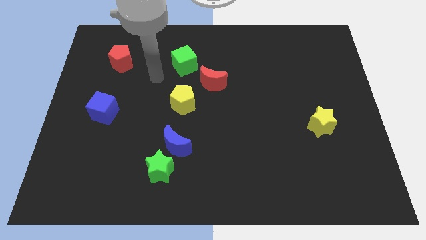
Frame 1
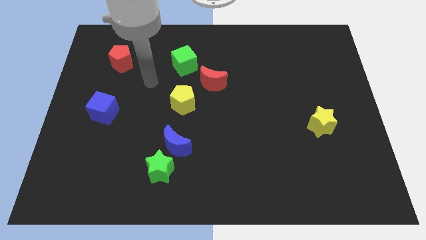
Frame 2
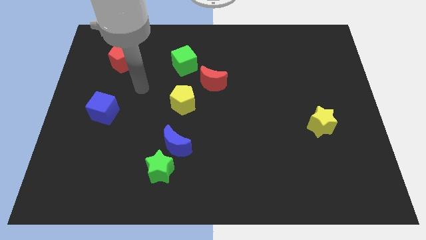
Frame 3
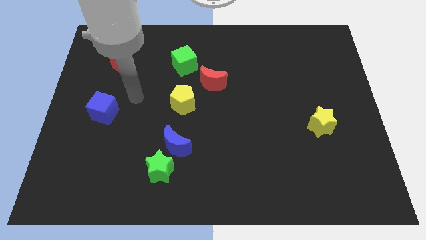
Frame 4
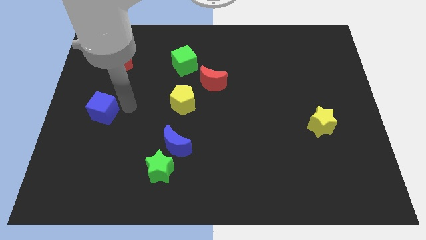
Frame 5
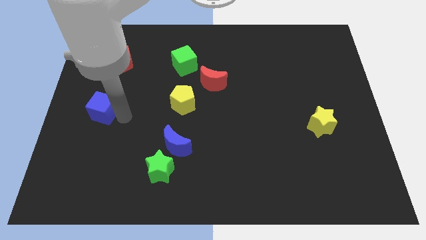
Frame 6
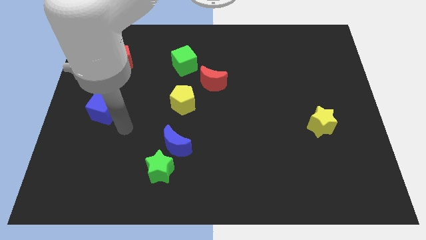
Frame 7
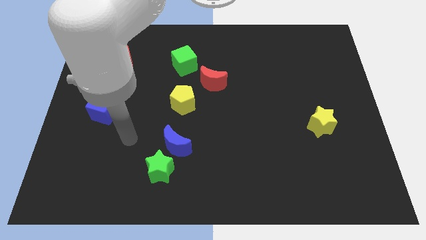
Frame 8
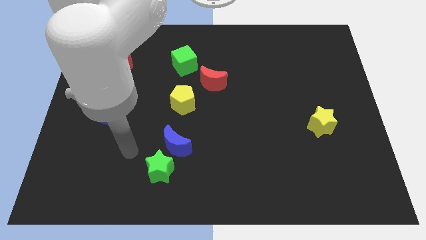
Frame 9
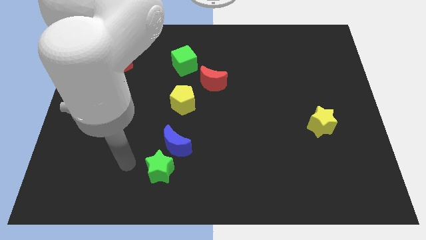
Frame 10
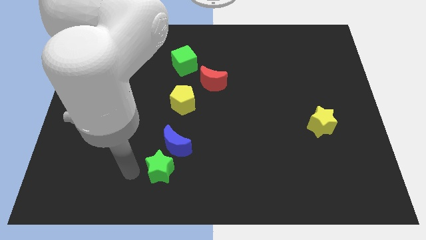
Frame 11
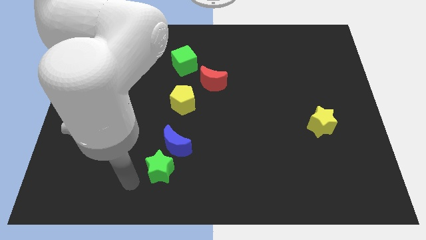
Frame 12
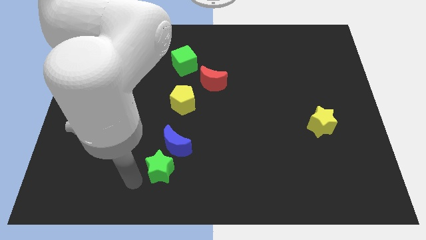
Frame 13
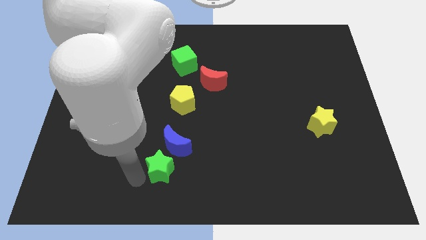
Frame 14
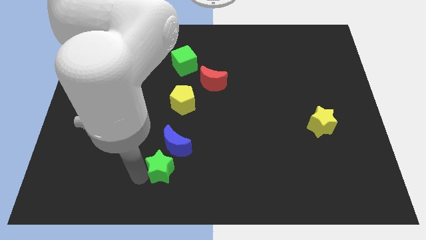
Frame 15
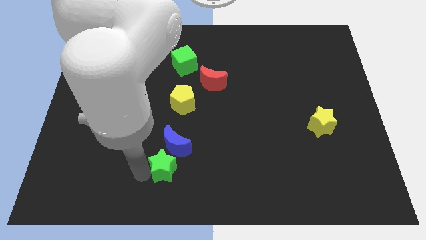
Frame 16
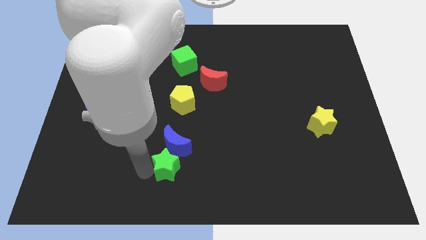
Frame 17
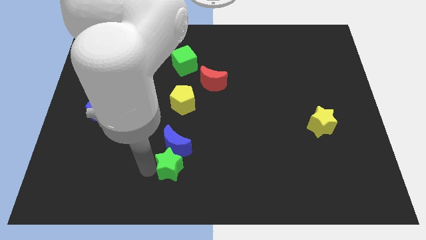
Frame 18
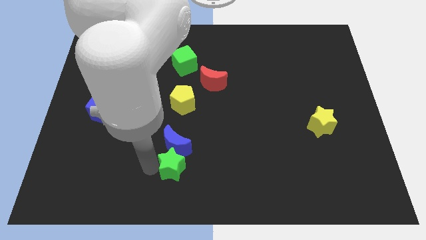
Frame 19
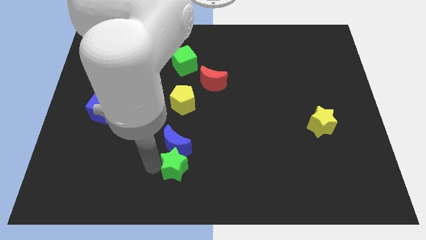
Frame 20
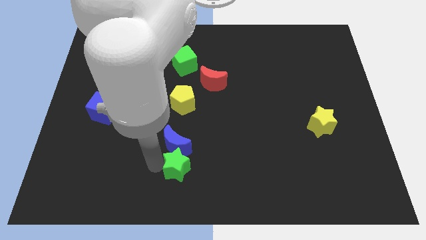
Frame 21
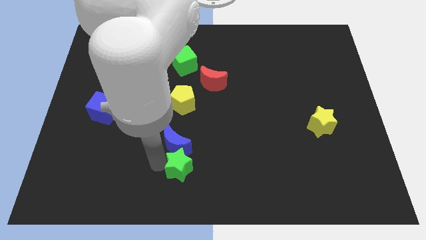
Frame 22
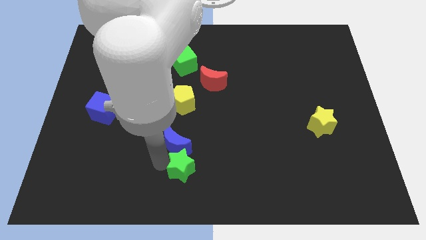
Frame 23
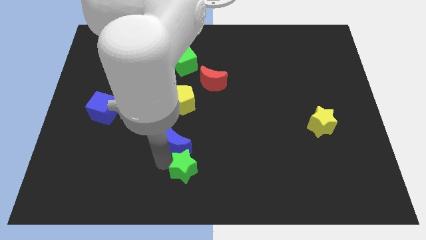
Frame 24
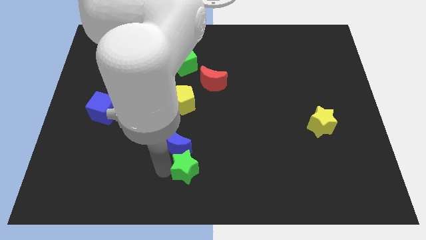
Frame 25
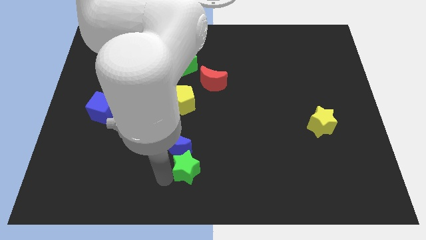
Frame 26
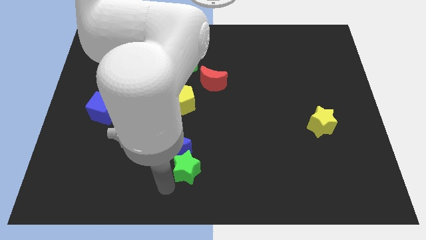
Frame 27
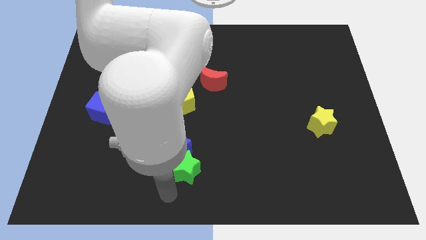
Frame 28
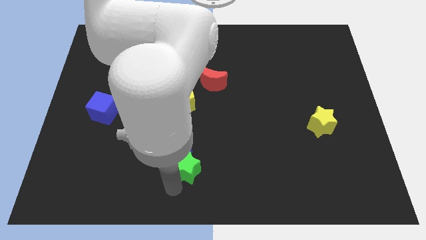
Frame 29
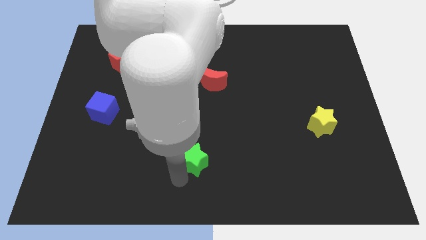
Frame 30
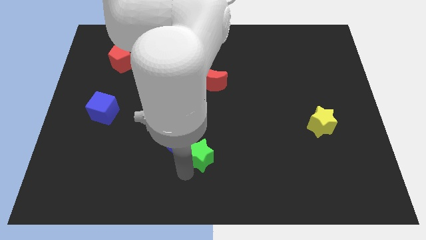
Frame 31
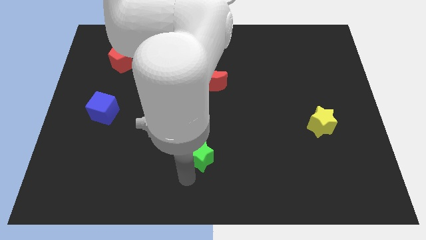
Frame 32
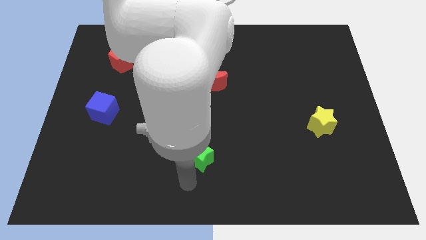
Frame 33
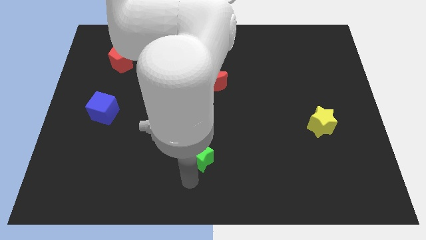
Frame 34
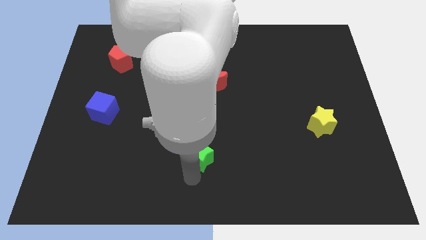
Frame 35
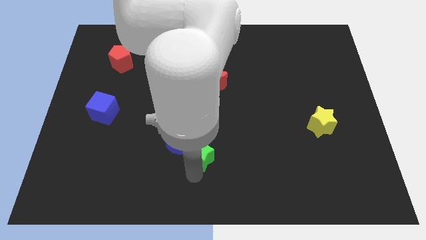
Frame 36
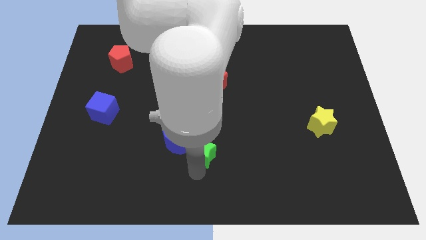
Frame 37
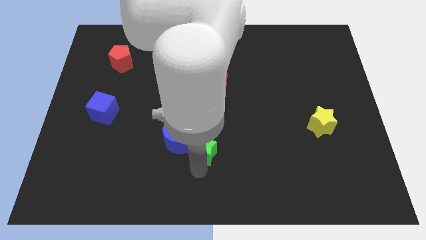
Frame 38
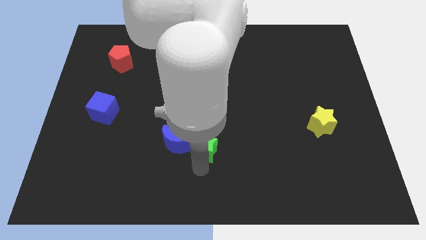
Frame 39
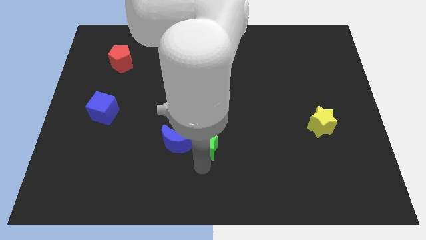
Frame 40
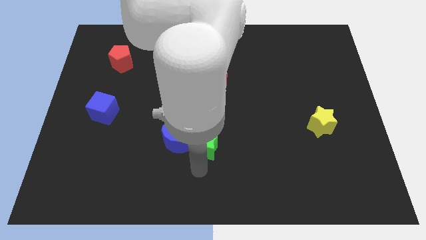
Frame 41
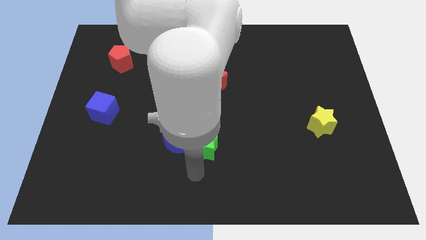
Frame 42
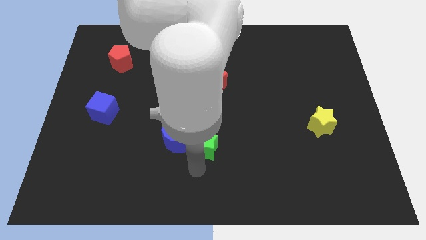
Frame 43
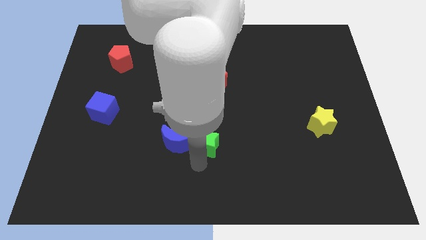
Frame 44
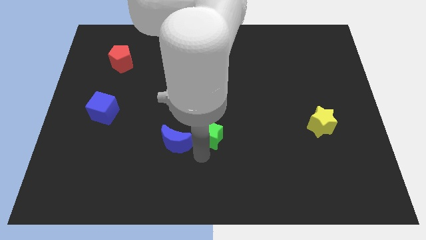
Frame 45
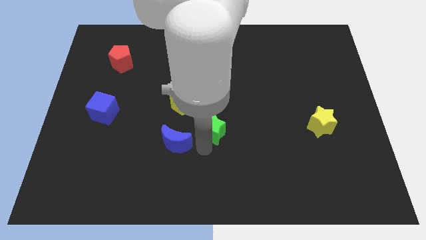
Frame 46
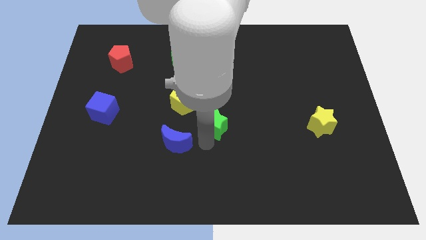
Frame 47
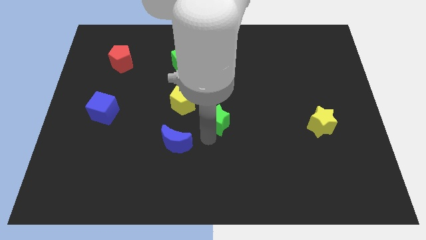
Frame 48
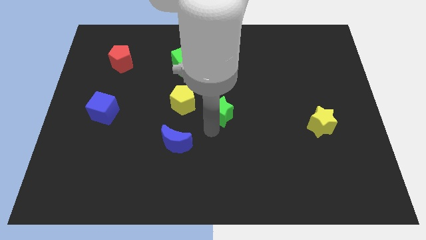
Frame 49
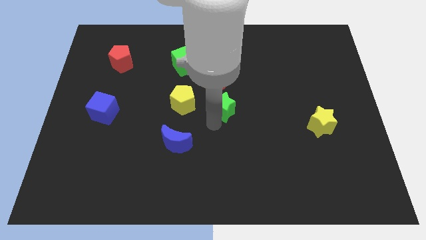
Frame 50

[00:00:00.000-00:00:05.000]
slide the green star to the bottom right of the red moon

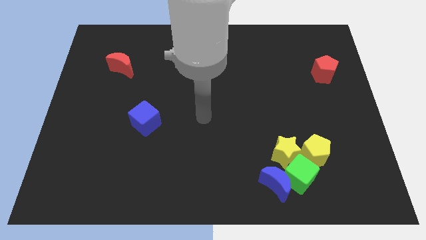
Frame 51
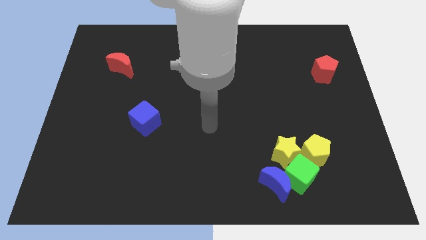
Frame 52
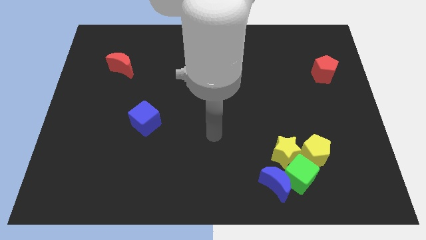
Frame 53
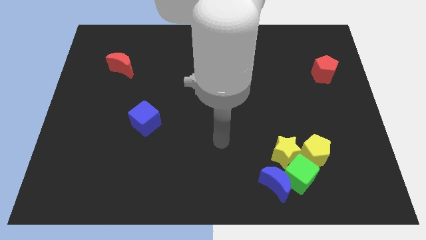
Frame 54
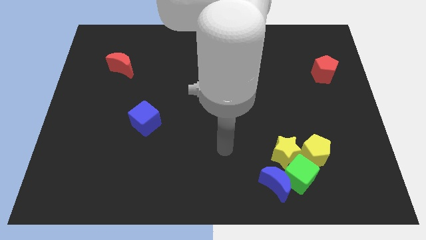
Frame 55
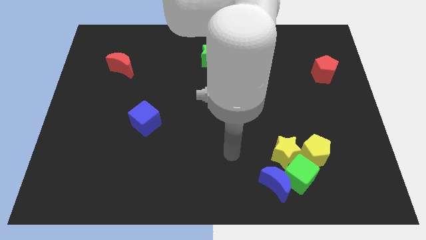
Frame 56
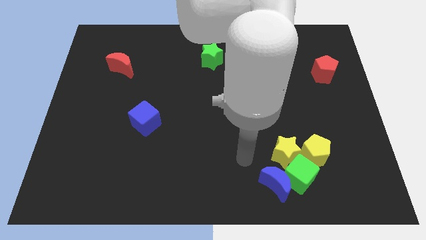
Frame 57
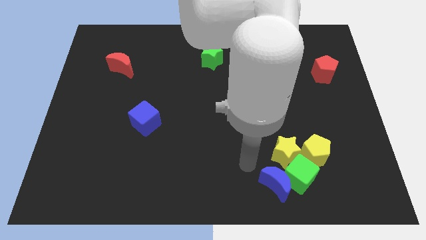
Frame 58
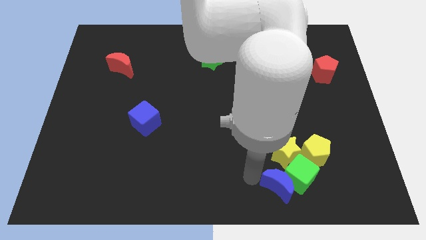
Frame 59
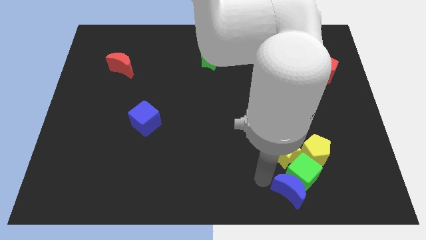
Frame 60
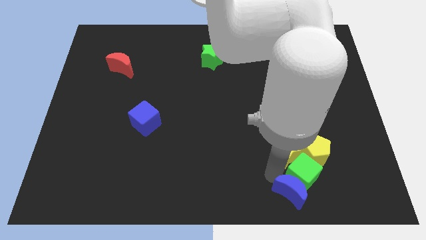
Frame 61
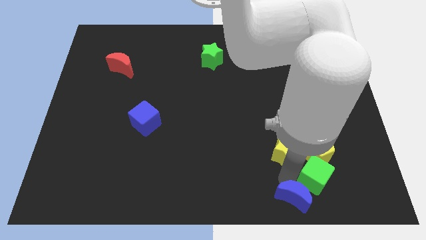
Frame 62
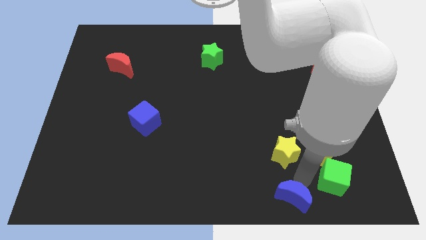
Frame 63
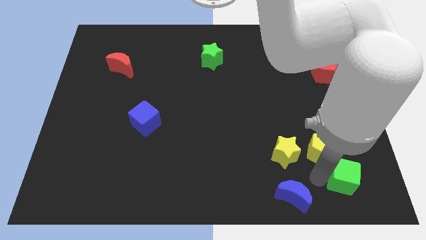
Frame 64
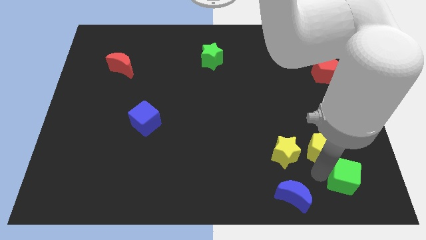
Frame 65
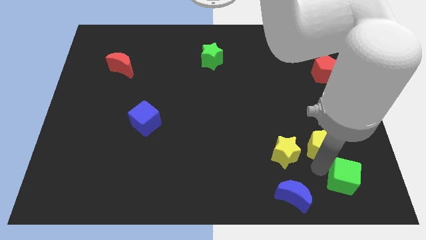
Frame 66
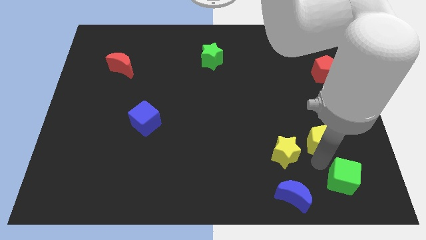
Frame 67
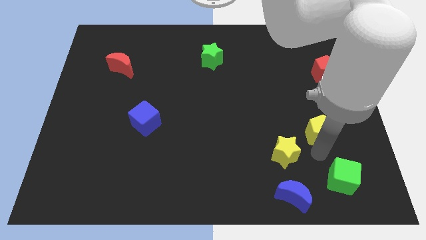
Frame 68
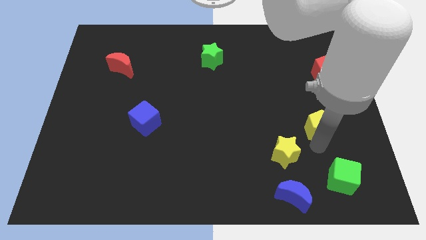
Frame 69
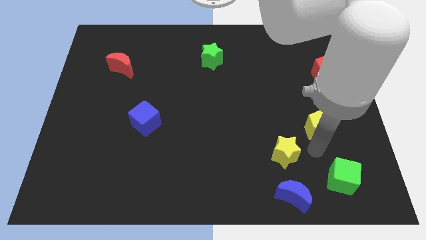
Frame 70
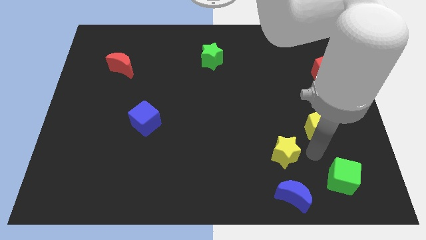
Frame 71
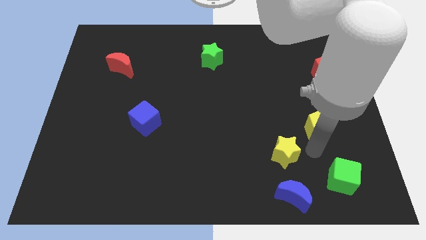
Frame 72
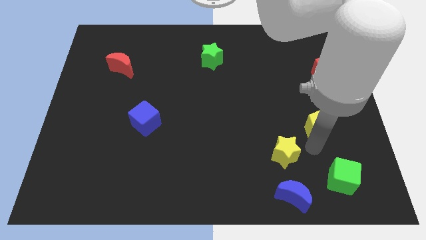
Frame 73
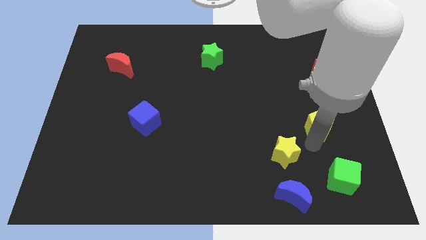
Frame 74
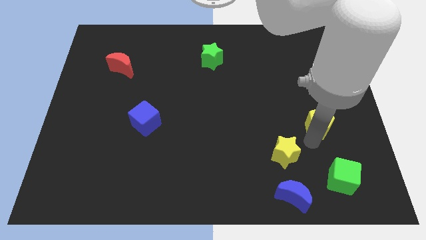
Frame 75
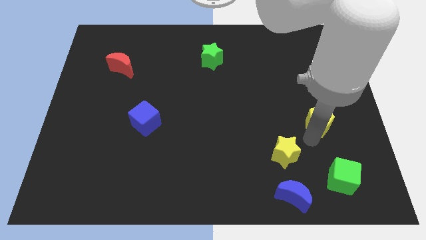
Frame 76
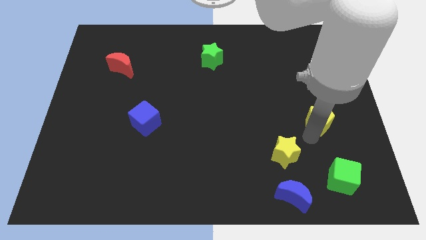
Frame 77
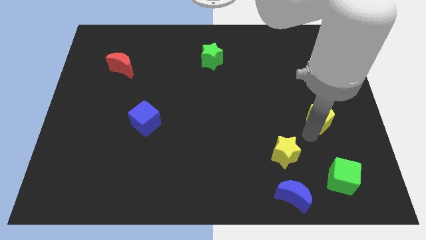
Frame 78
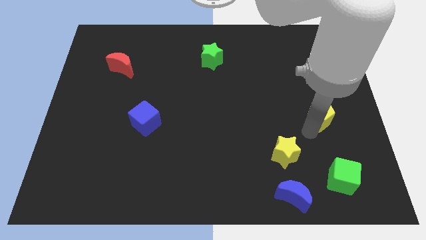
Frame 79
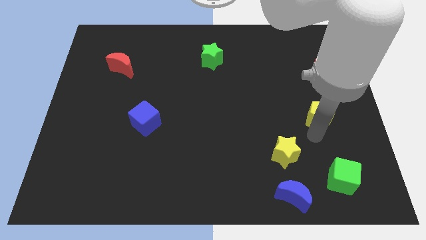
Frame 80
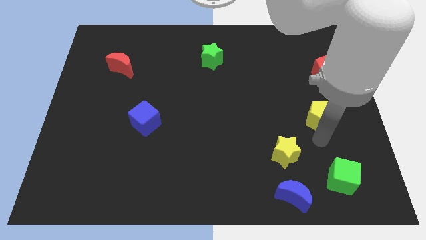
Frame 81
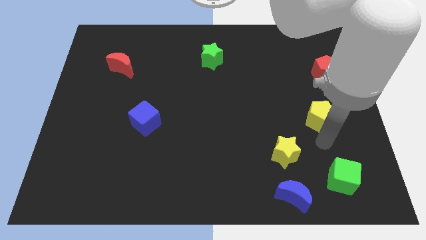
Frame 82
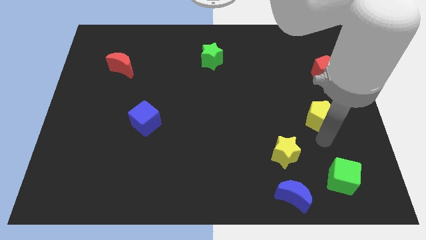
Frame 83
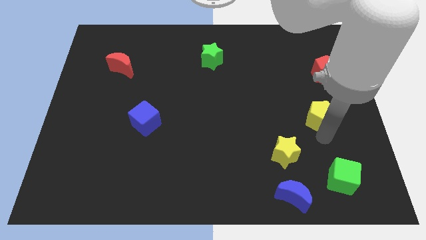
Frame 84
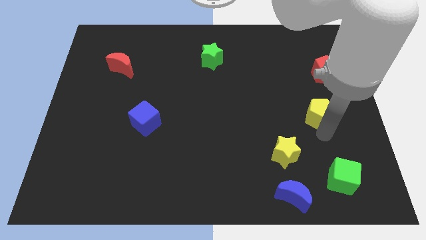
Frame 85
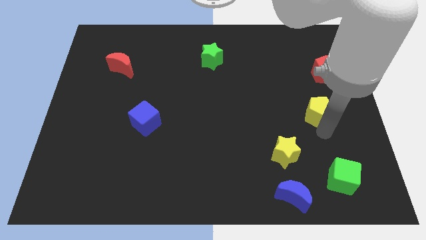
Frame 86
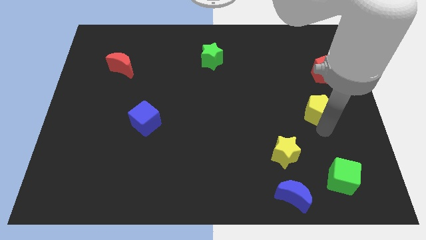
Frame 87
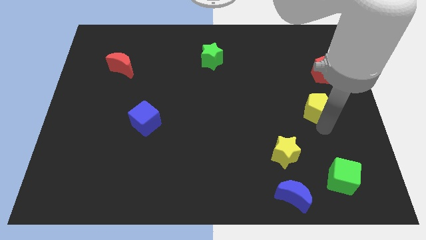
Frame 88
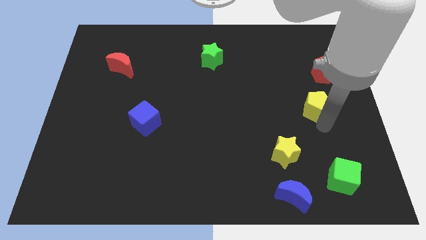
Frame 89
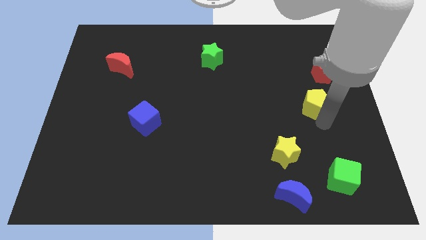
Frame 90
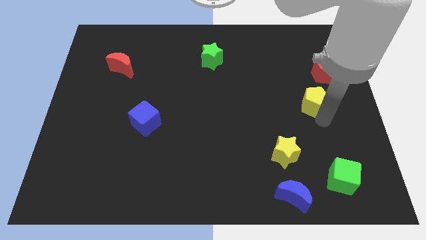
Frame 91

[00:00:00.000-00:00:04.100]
put the yellow pentagon to the bottom left side of the red pentagon
